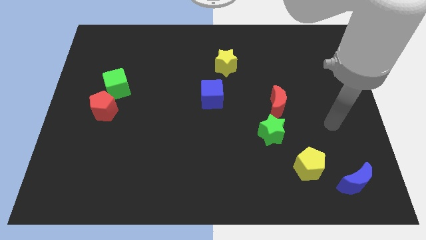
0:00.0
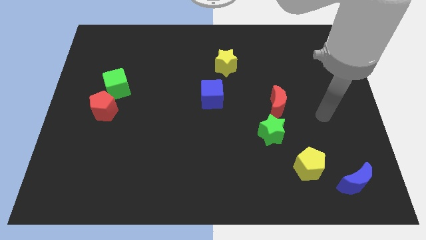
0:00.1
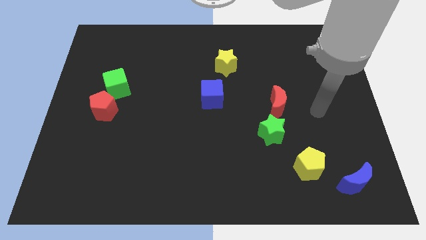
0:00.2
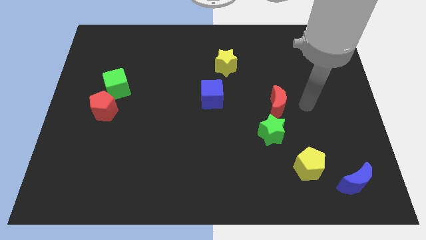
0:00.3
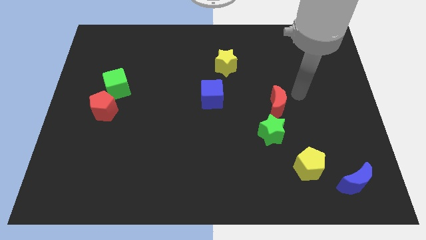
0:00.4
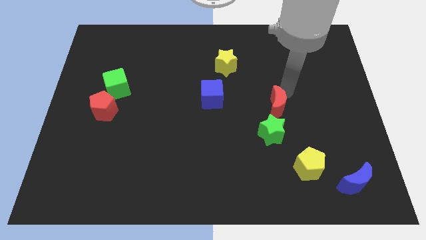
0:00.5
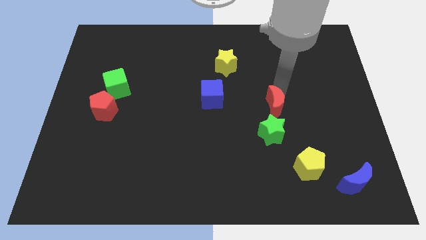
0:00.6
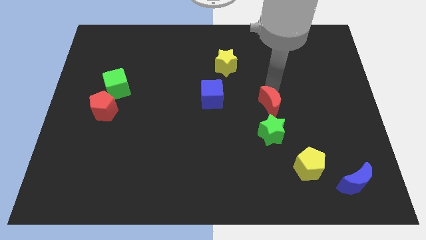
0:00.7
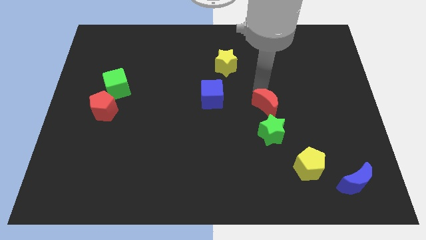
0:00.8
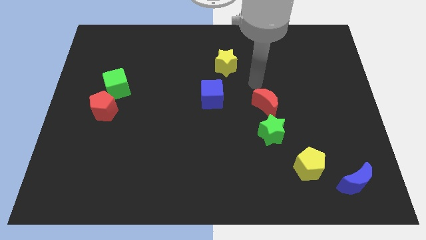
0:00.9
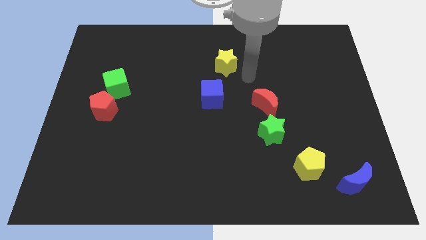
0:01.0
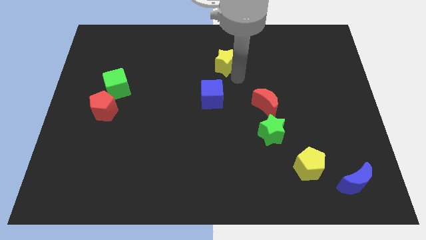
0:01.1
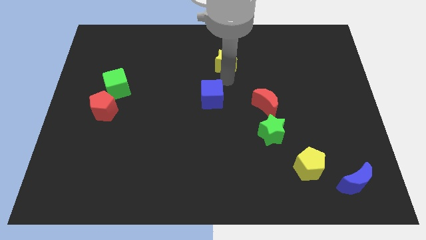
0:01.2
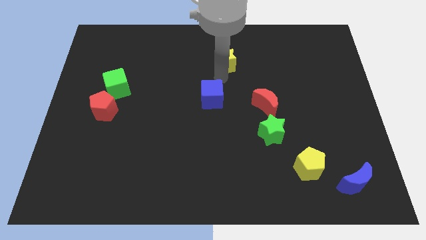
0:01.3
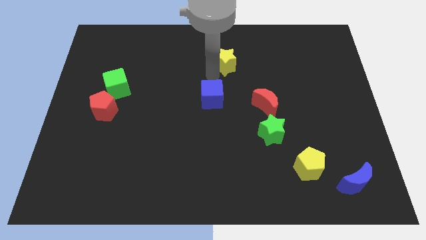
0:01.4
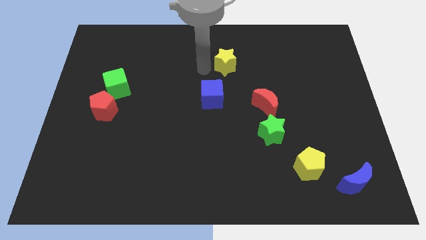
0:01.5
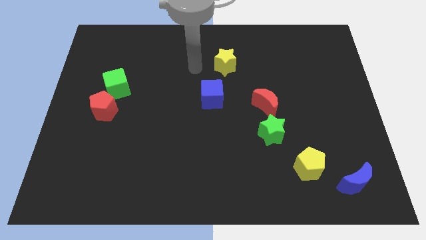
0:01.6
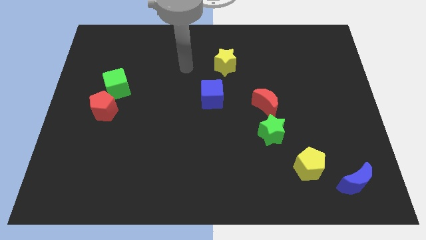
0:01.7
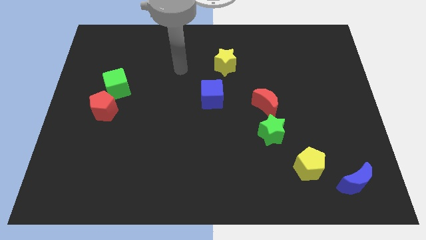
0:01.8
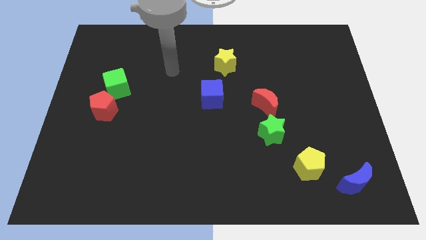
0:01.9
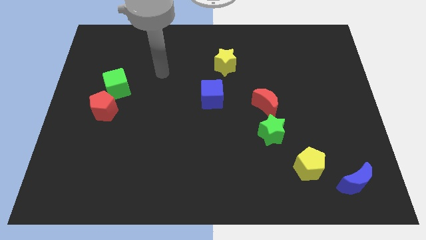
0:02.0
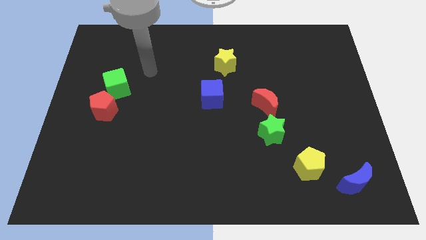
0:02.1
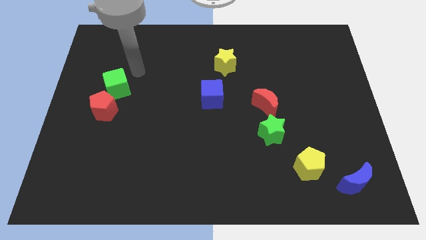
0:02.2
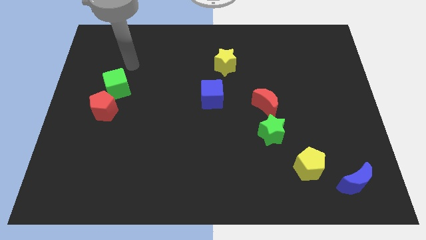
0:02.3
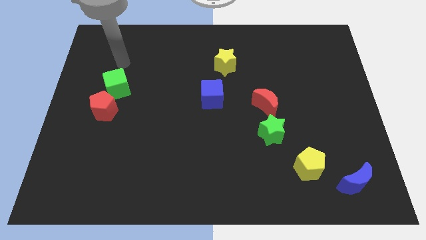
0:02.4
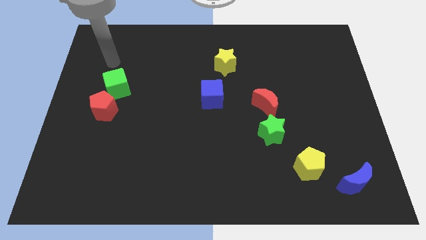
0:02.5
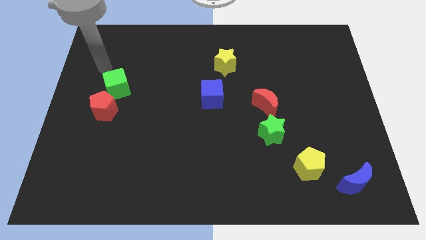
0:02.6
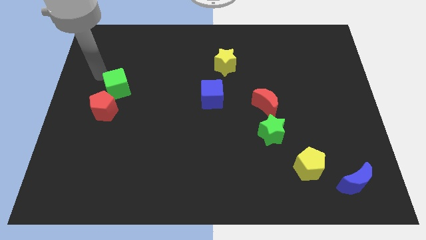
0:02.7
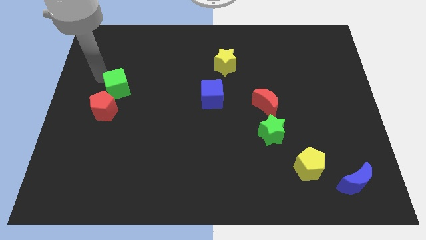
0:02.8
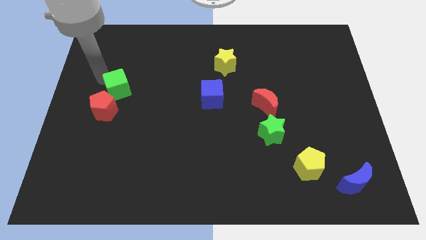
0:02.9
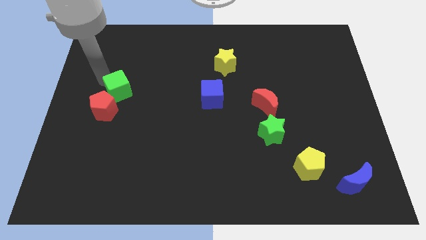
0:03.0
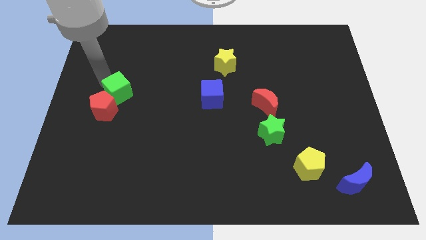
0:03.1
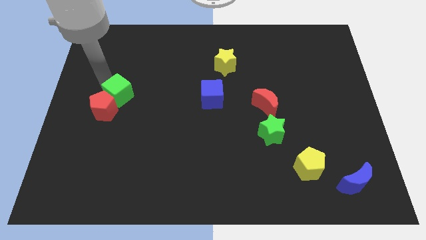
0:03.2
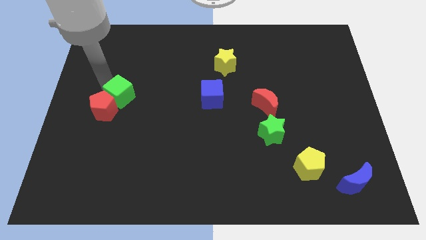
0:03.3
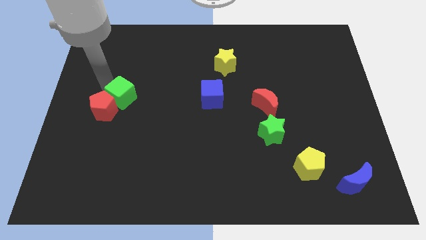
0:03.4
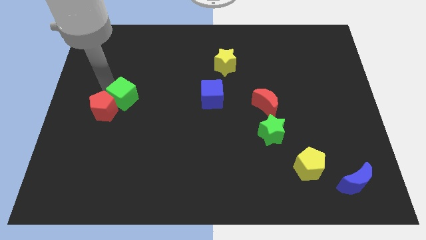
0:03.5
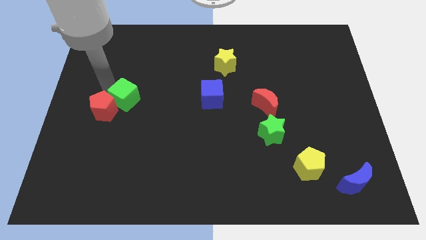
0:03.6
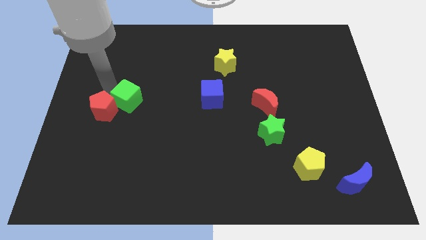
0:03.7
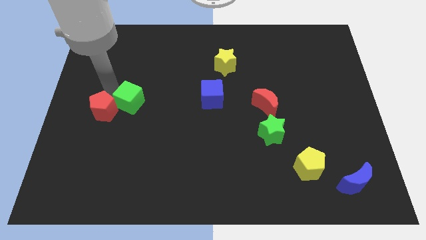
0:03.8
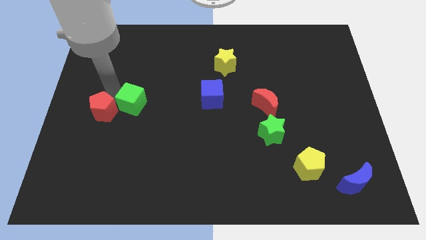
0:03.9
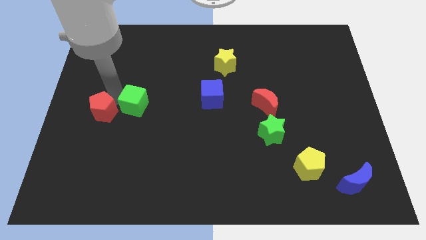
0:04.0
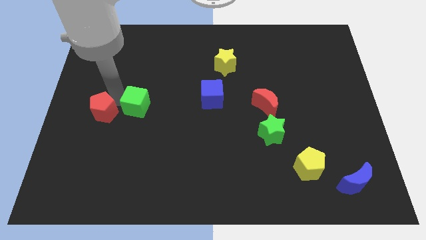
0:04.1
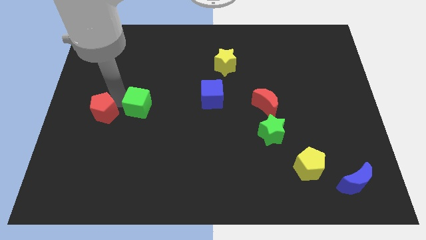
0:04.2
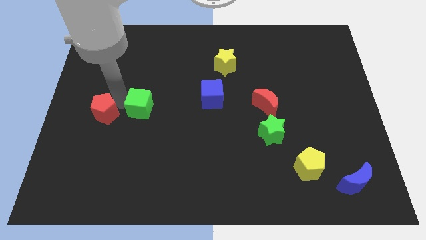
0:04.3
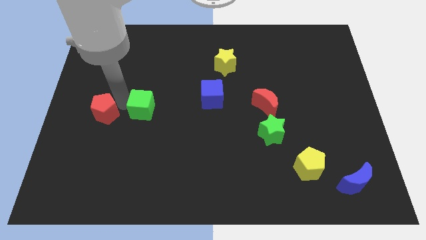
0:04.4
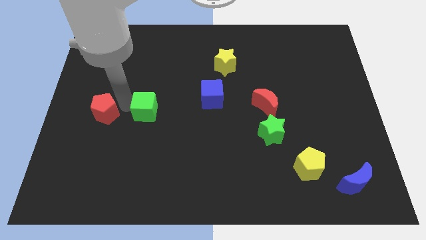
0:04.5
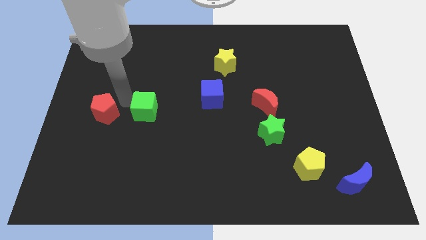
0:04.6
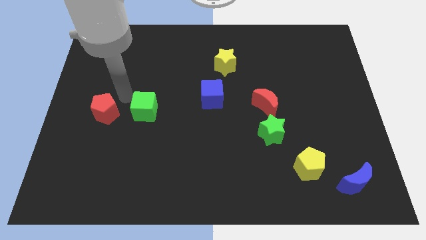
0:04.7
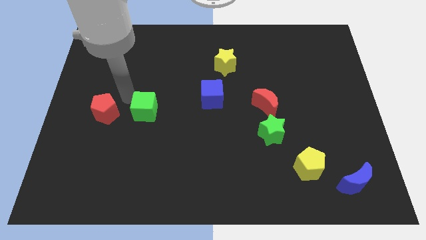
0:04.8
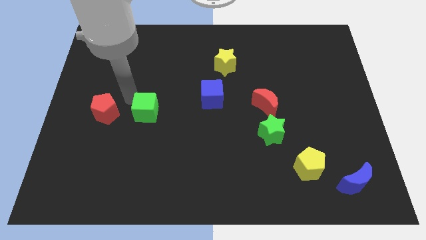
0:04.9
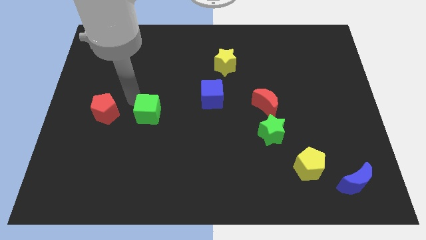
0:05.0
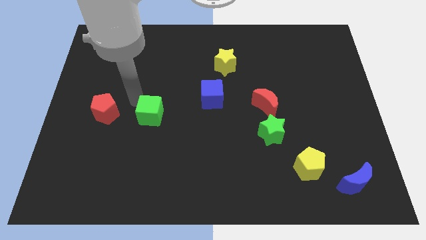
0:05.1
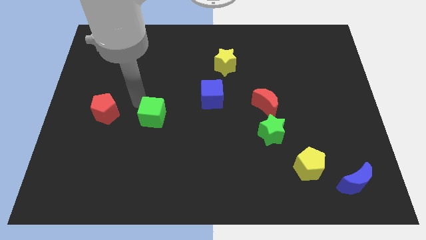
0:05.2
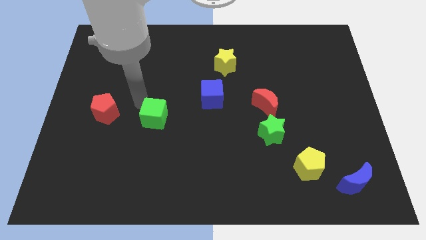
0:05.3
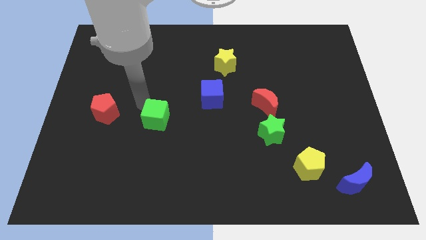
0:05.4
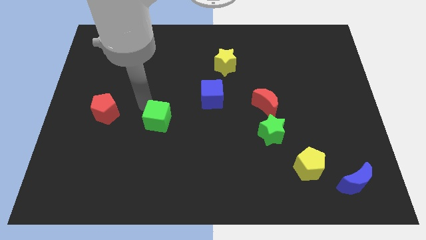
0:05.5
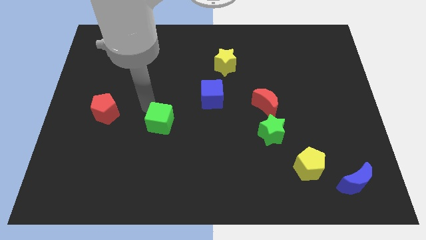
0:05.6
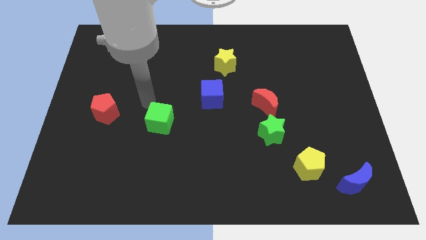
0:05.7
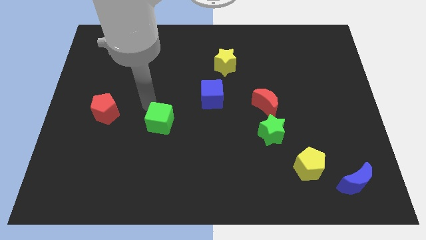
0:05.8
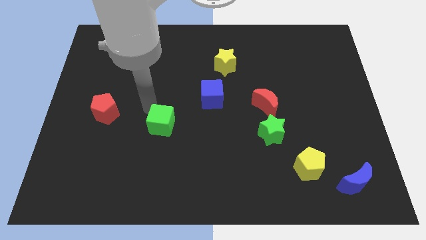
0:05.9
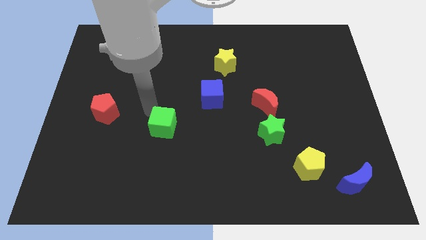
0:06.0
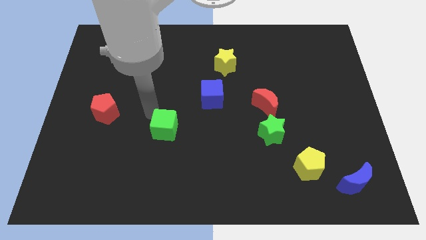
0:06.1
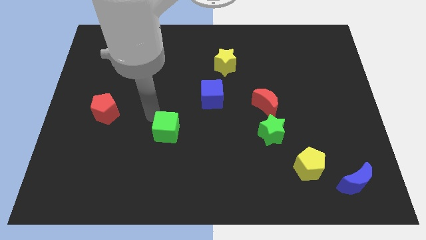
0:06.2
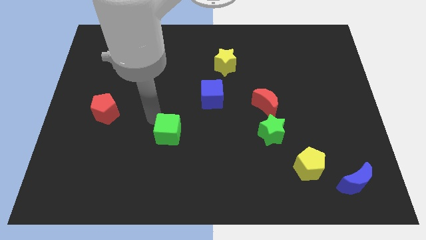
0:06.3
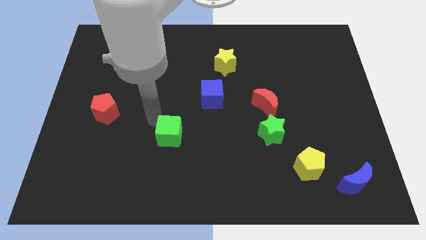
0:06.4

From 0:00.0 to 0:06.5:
push the green cube downwards and then to the right

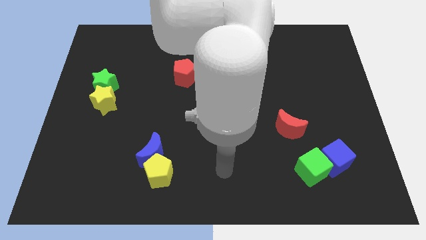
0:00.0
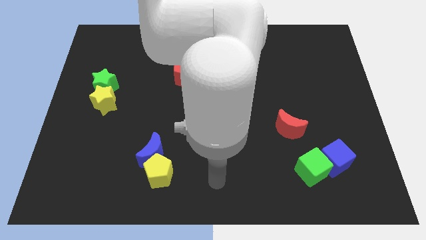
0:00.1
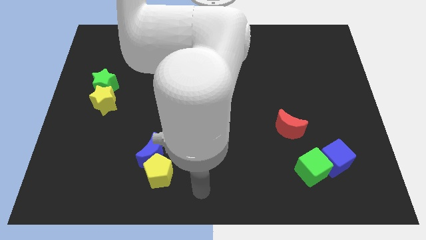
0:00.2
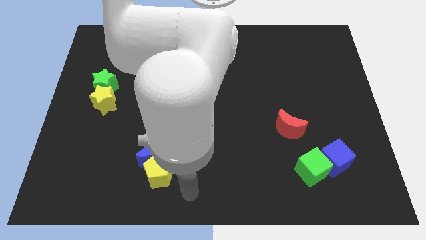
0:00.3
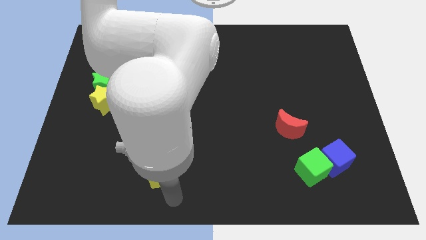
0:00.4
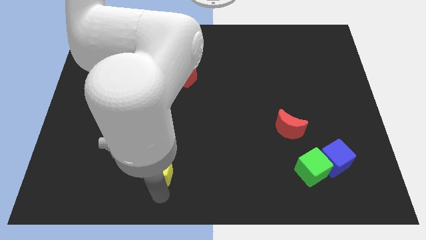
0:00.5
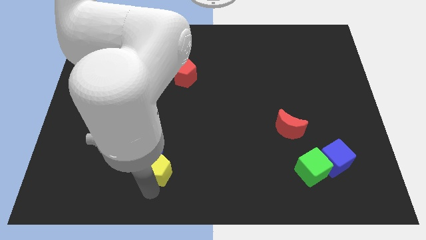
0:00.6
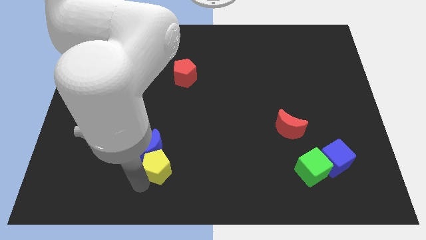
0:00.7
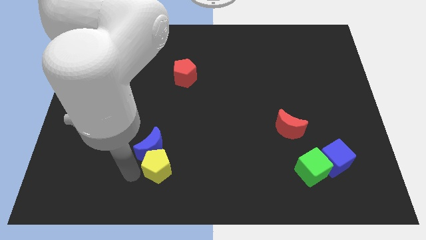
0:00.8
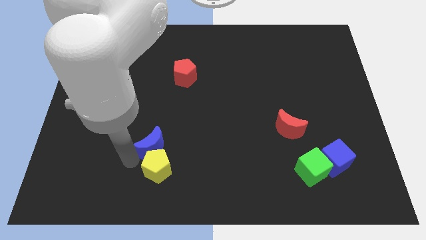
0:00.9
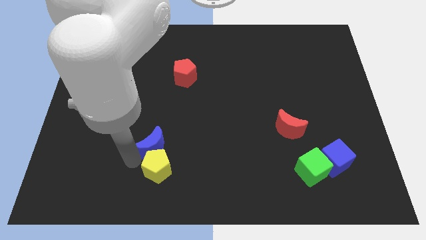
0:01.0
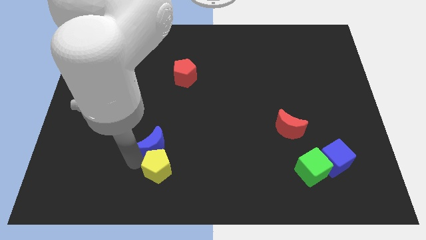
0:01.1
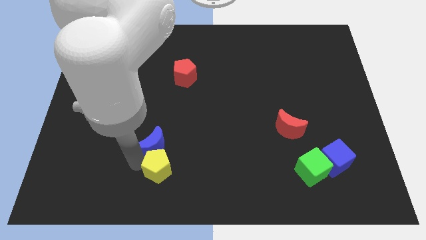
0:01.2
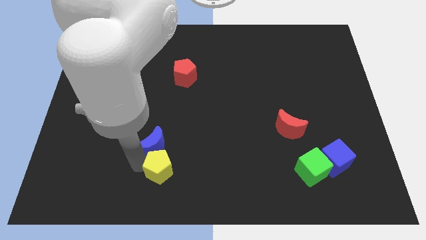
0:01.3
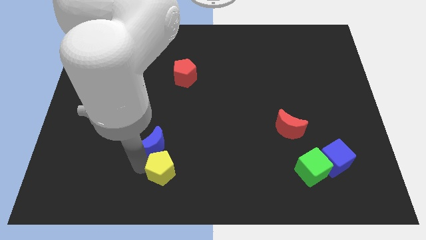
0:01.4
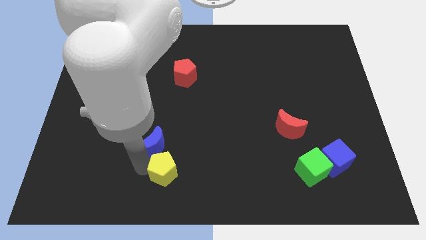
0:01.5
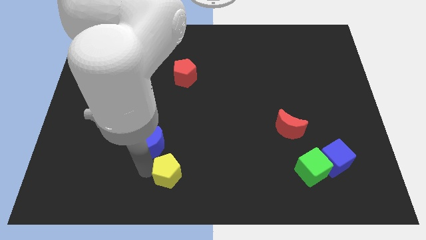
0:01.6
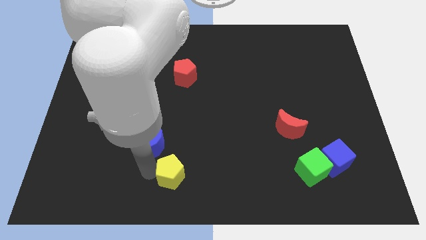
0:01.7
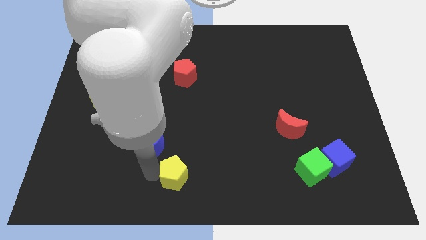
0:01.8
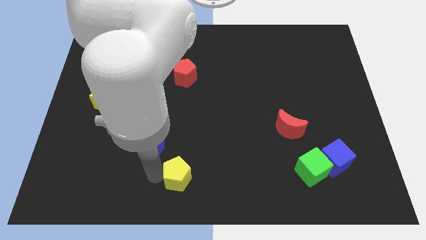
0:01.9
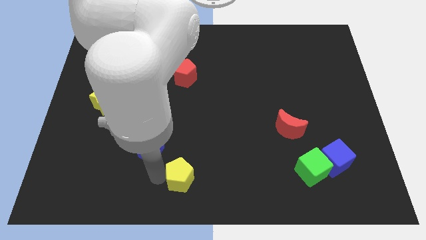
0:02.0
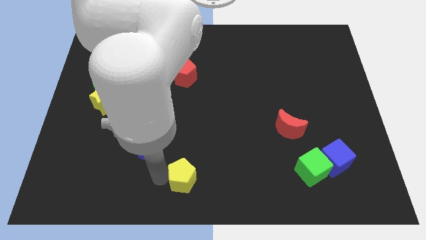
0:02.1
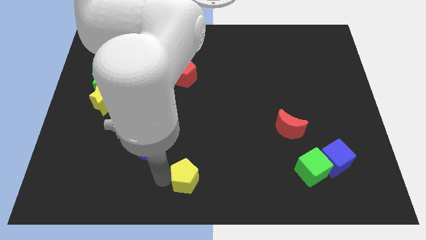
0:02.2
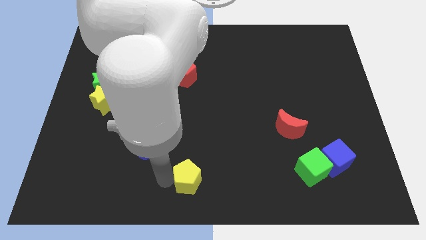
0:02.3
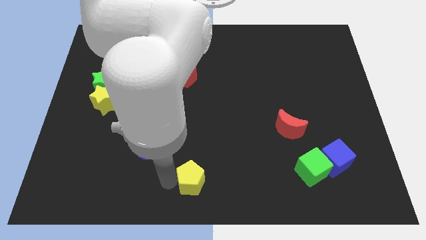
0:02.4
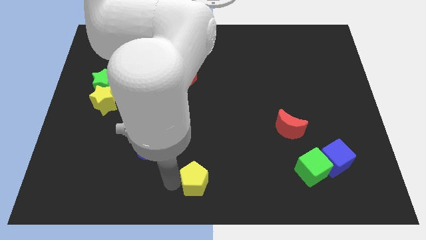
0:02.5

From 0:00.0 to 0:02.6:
push the yellow pentagon a little to the right
